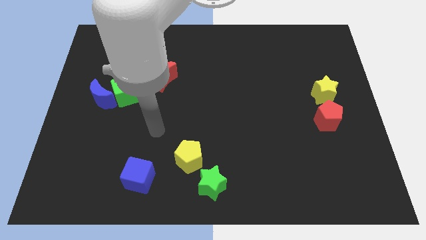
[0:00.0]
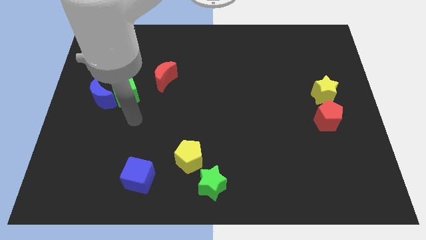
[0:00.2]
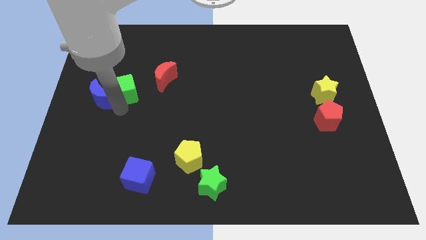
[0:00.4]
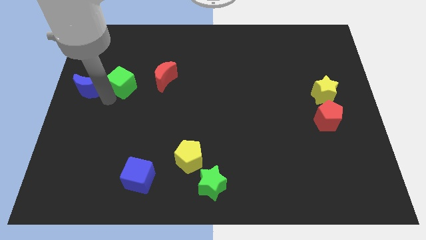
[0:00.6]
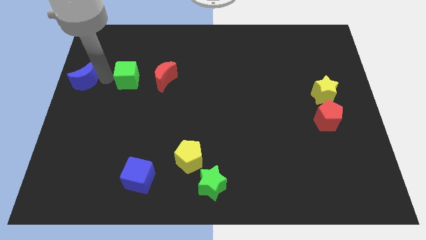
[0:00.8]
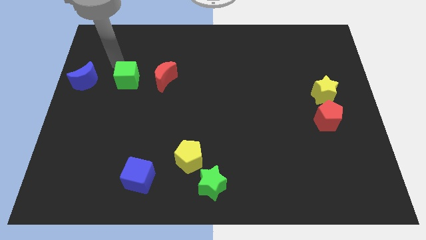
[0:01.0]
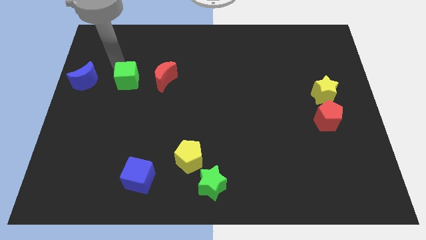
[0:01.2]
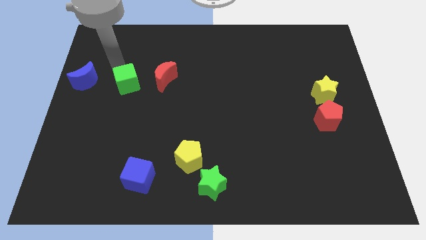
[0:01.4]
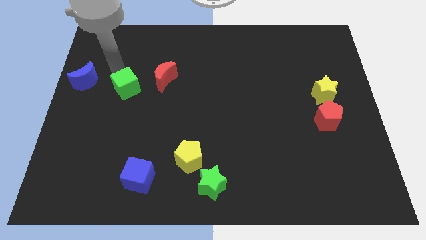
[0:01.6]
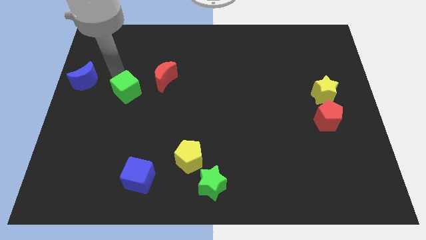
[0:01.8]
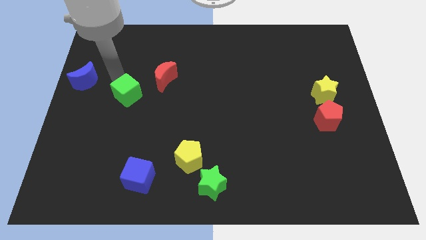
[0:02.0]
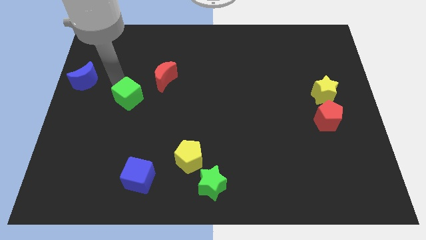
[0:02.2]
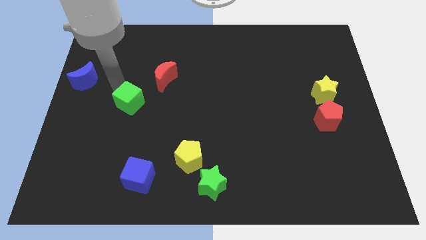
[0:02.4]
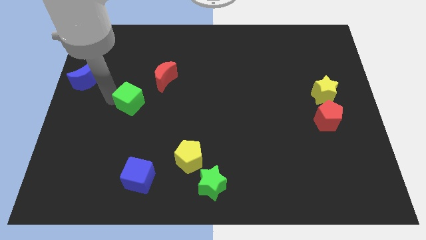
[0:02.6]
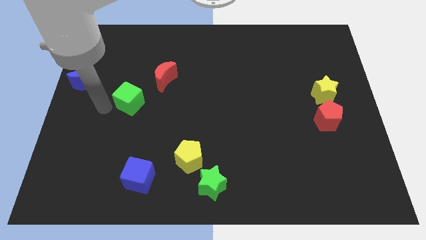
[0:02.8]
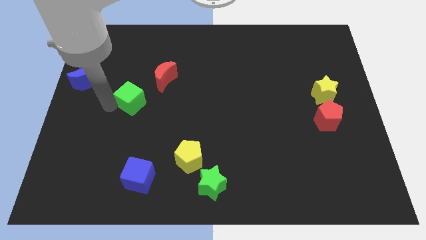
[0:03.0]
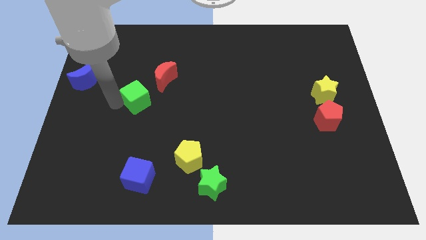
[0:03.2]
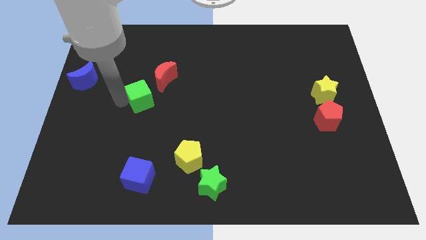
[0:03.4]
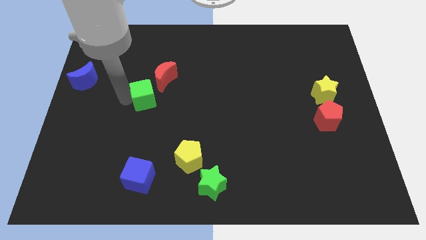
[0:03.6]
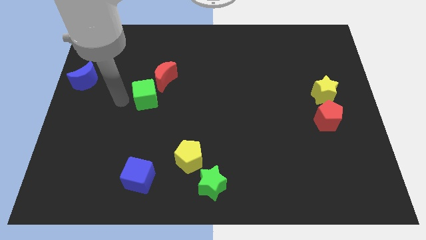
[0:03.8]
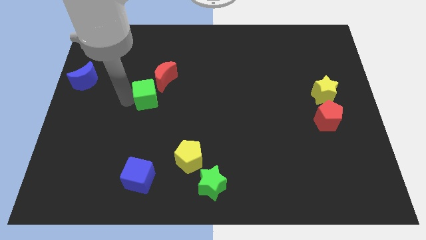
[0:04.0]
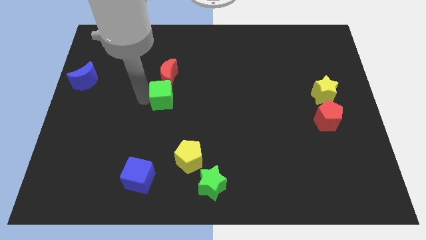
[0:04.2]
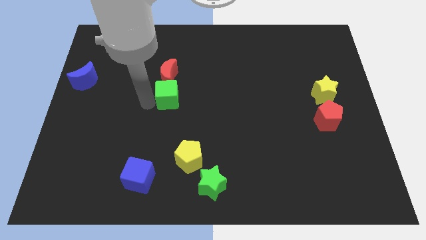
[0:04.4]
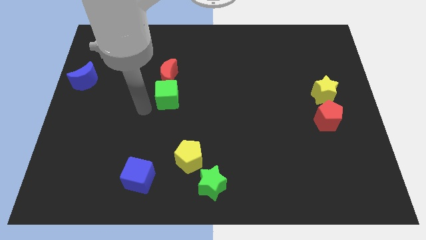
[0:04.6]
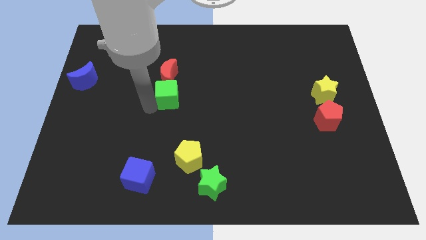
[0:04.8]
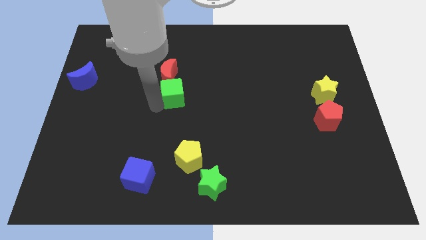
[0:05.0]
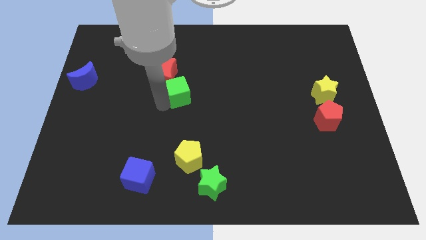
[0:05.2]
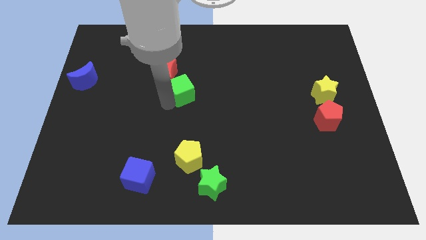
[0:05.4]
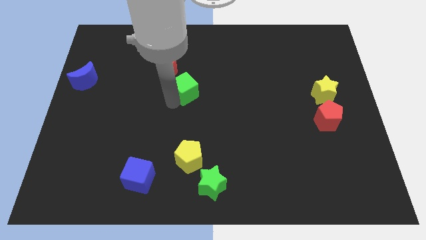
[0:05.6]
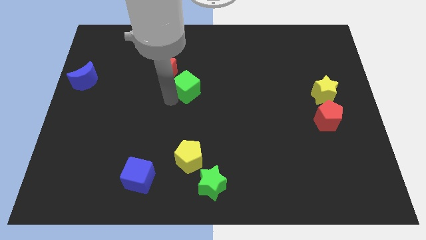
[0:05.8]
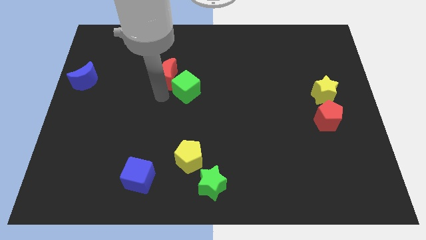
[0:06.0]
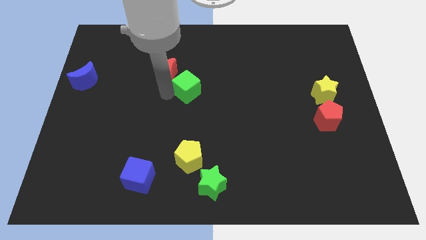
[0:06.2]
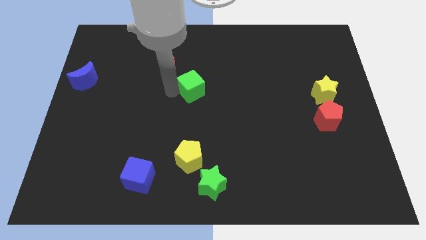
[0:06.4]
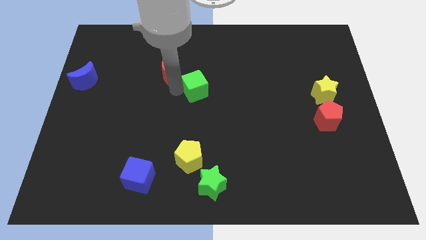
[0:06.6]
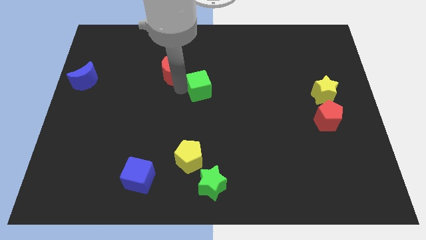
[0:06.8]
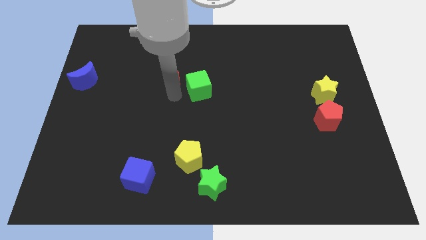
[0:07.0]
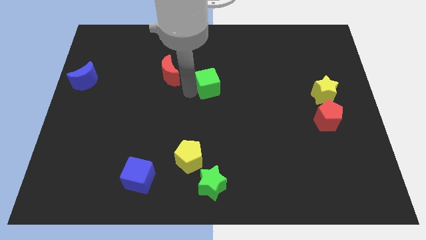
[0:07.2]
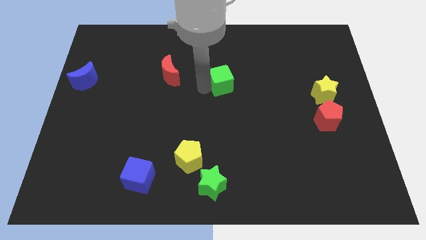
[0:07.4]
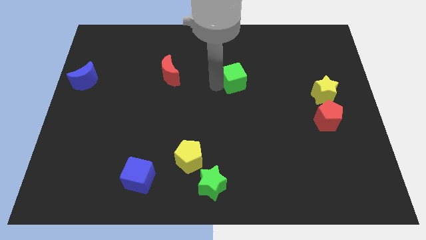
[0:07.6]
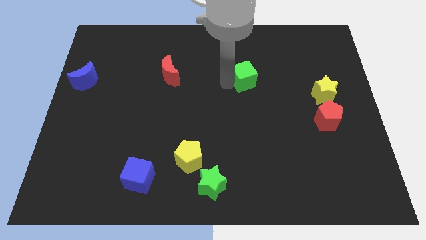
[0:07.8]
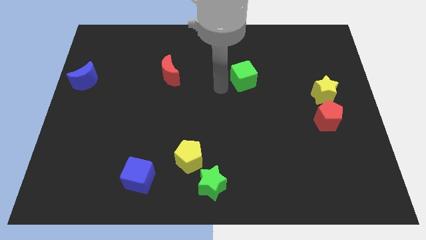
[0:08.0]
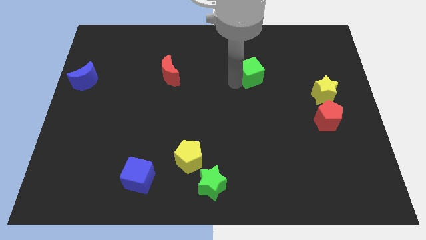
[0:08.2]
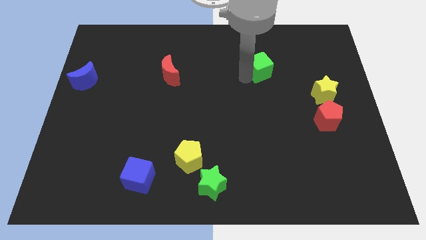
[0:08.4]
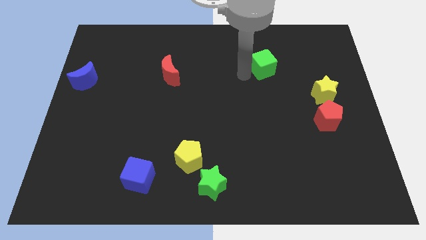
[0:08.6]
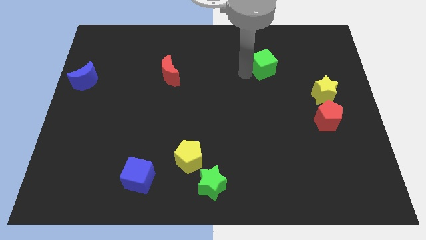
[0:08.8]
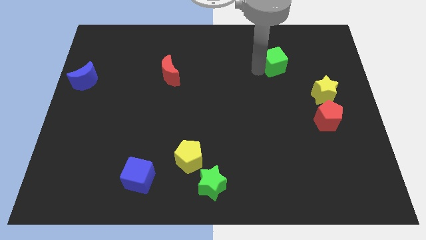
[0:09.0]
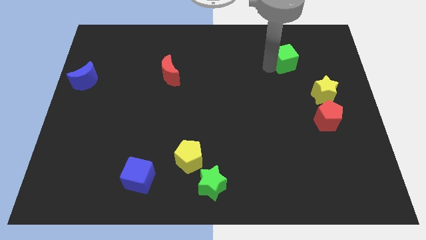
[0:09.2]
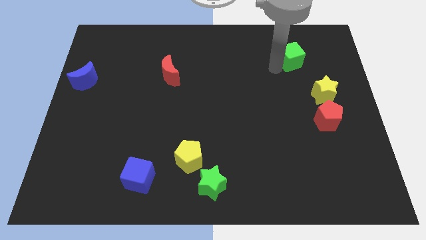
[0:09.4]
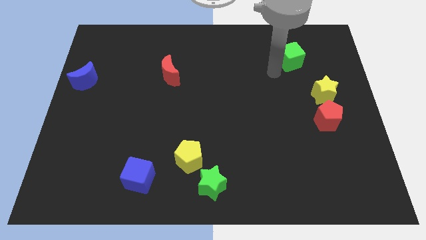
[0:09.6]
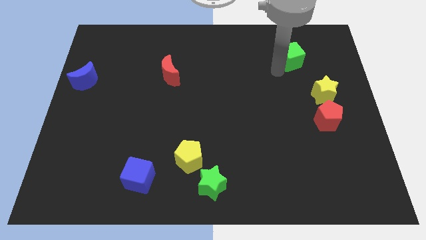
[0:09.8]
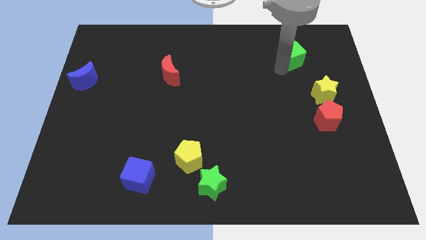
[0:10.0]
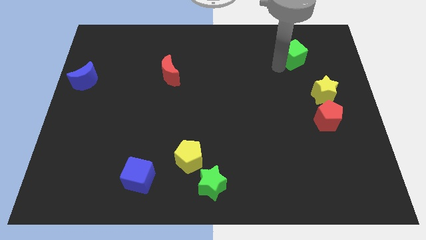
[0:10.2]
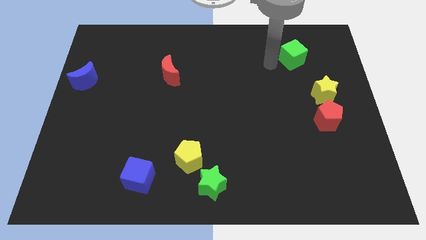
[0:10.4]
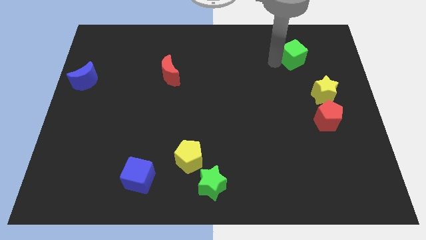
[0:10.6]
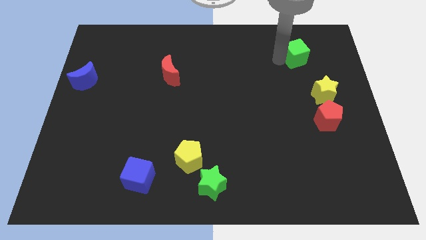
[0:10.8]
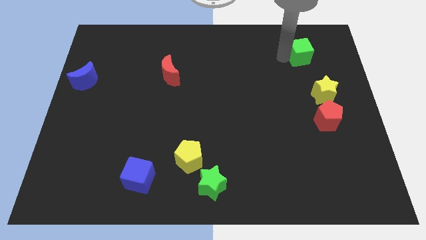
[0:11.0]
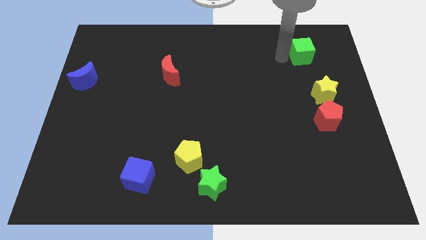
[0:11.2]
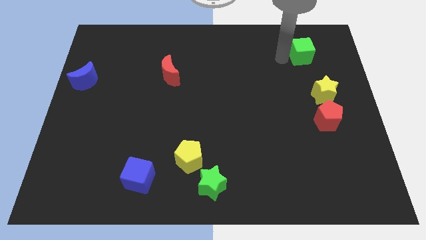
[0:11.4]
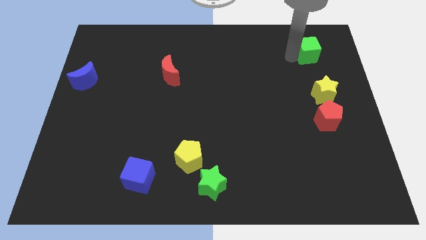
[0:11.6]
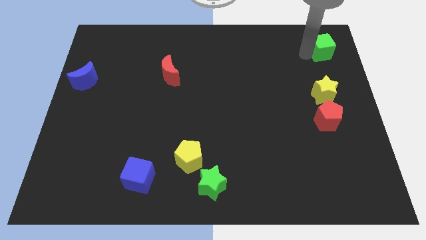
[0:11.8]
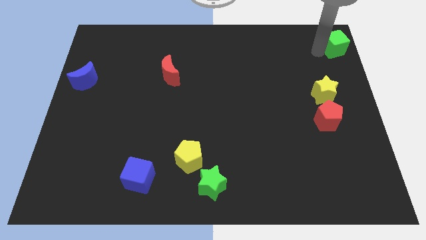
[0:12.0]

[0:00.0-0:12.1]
put the green cube to the top right of the board

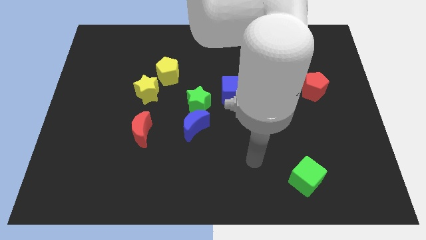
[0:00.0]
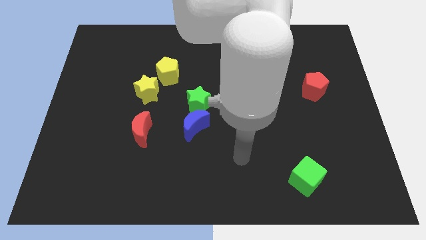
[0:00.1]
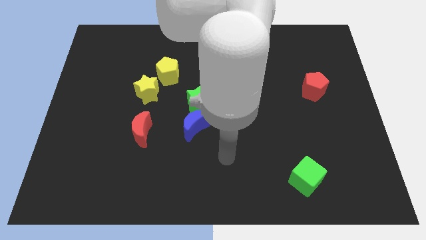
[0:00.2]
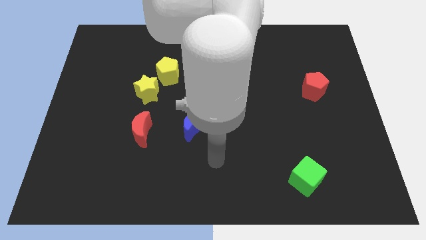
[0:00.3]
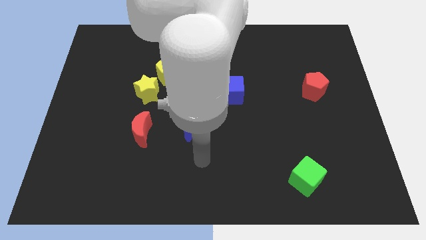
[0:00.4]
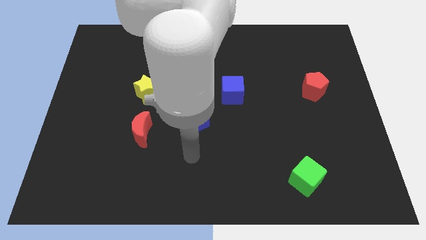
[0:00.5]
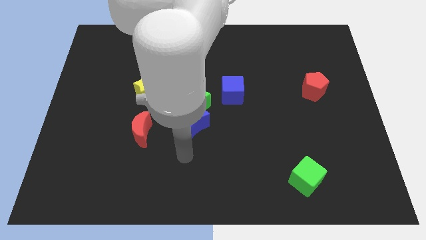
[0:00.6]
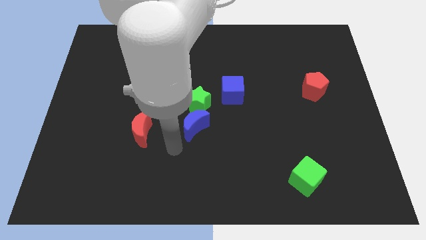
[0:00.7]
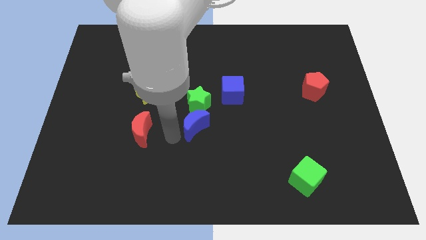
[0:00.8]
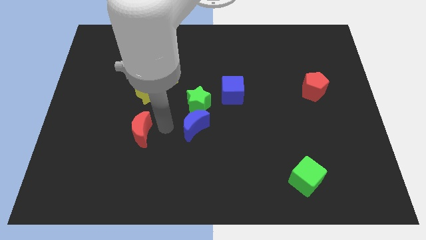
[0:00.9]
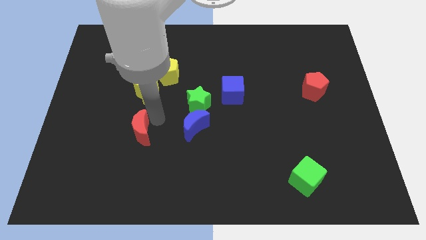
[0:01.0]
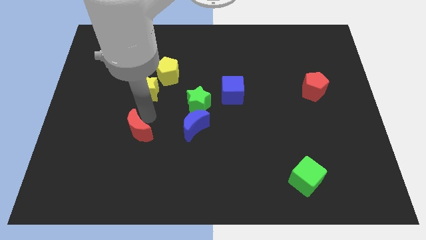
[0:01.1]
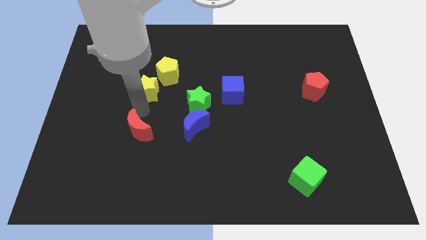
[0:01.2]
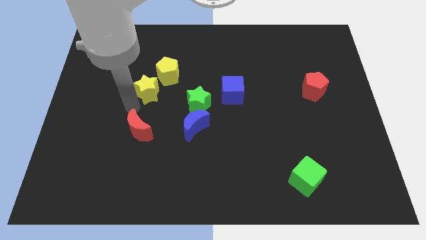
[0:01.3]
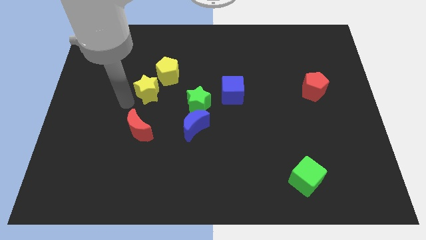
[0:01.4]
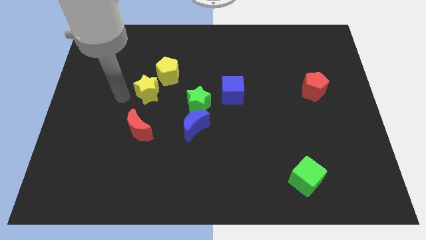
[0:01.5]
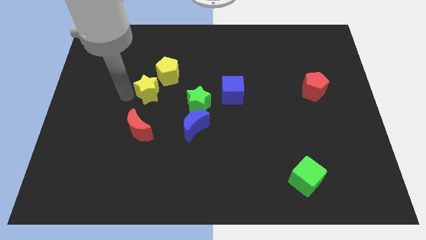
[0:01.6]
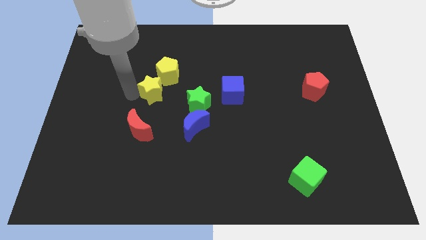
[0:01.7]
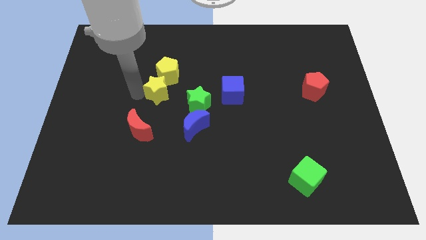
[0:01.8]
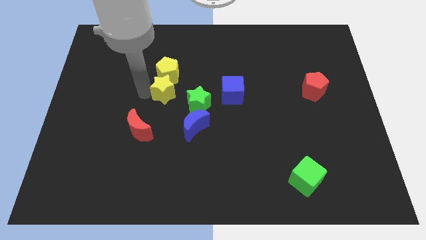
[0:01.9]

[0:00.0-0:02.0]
slide the yellow star to the middle of the board
